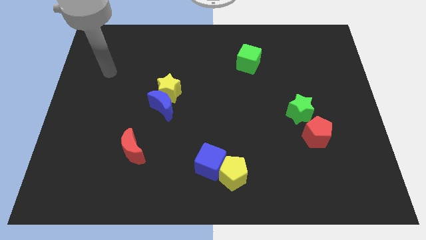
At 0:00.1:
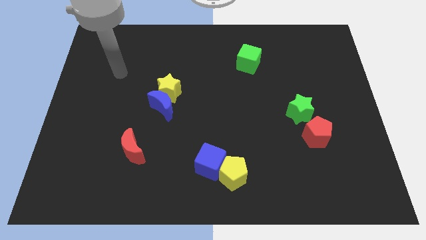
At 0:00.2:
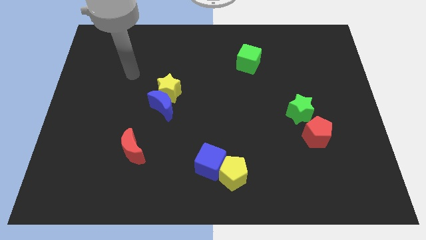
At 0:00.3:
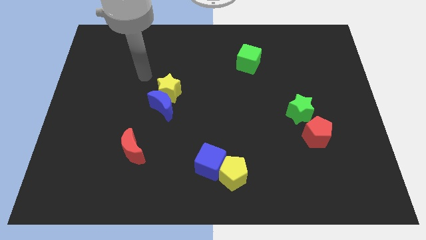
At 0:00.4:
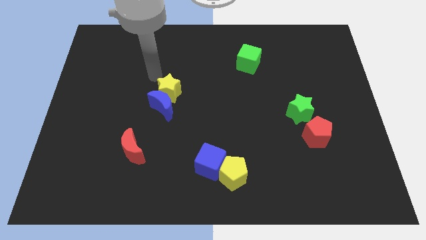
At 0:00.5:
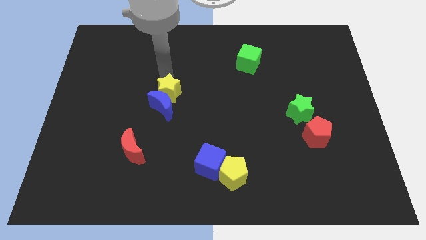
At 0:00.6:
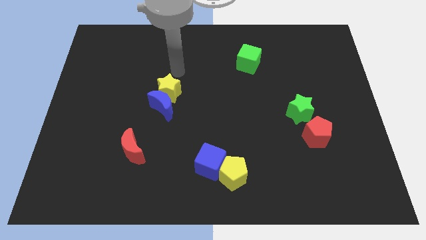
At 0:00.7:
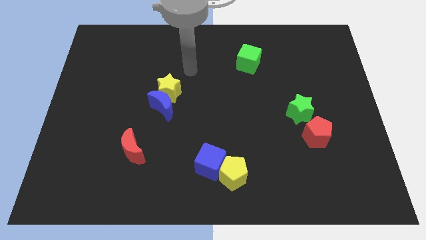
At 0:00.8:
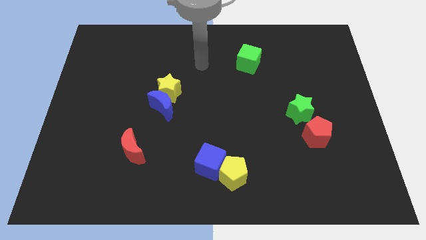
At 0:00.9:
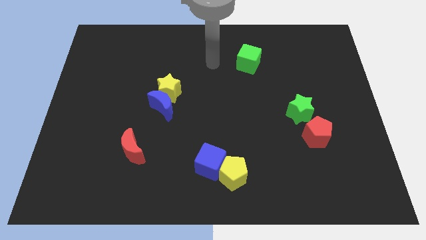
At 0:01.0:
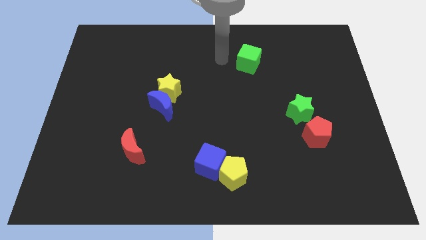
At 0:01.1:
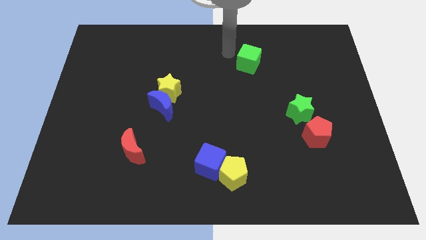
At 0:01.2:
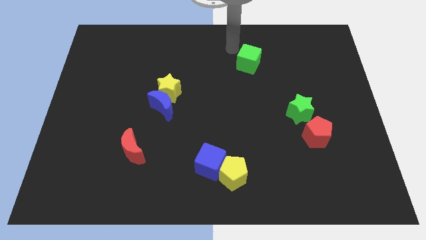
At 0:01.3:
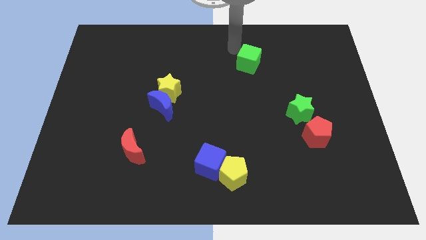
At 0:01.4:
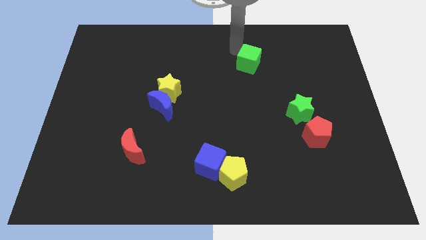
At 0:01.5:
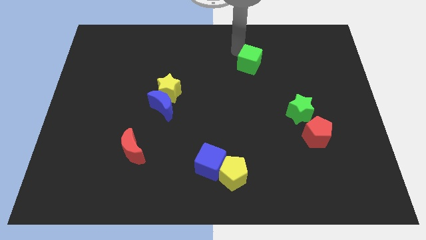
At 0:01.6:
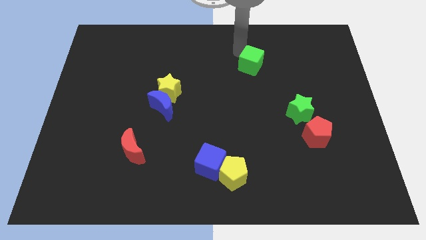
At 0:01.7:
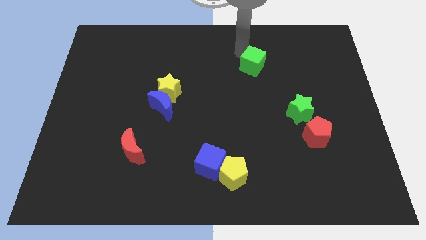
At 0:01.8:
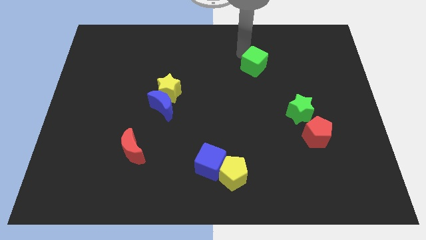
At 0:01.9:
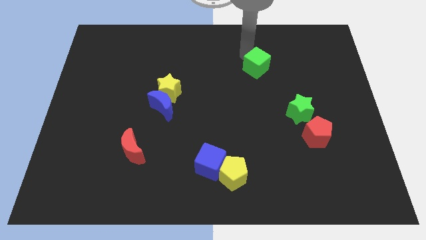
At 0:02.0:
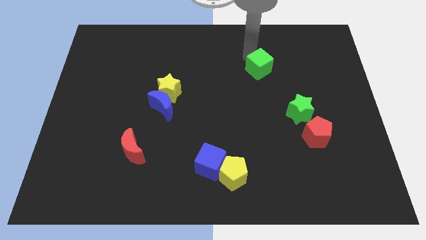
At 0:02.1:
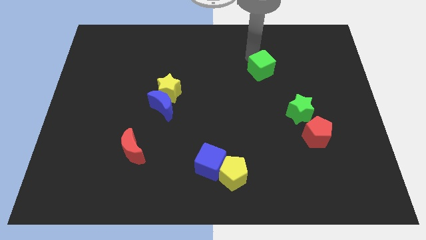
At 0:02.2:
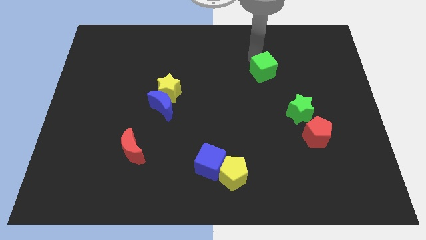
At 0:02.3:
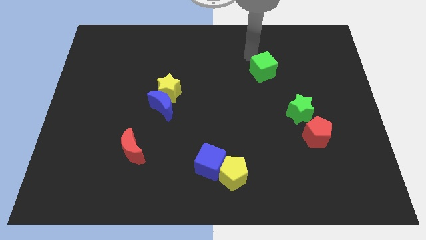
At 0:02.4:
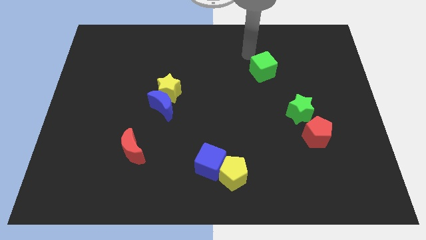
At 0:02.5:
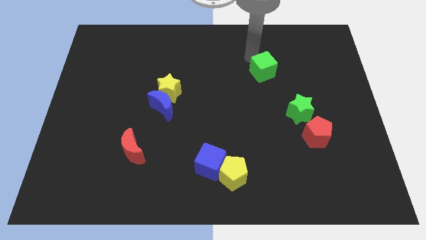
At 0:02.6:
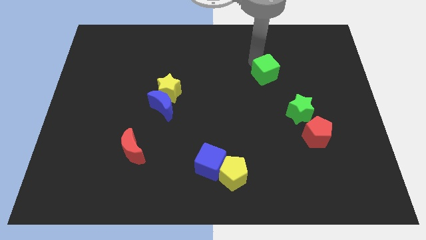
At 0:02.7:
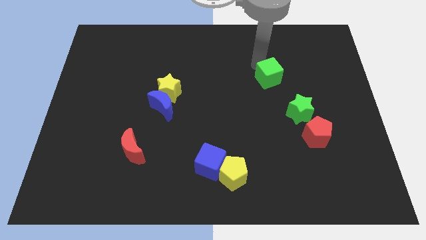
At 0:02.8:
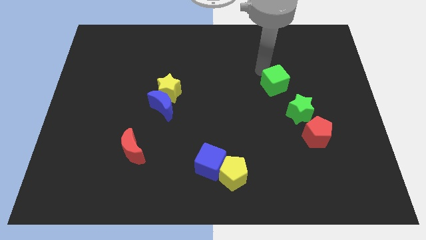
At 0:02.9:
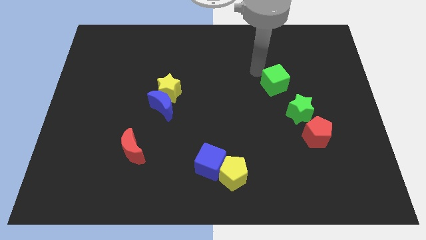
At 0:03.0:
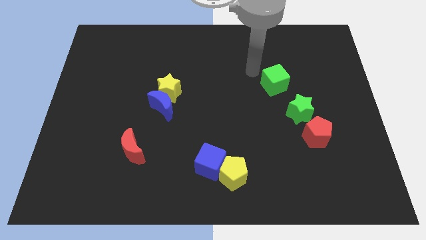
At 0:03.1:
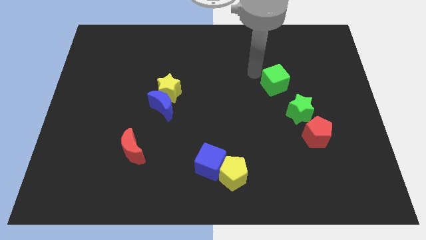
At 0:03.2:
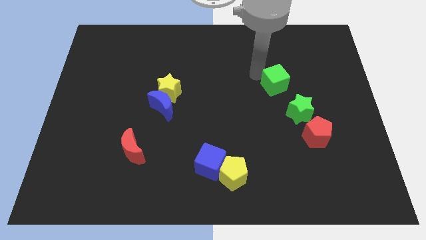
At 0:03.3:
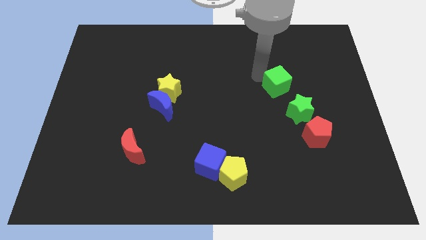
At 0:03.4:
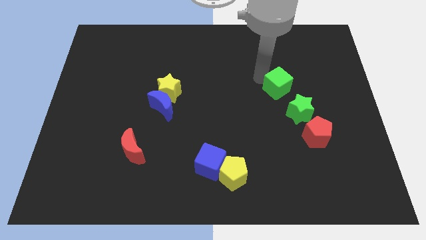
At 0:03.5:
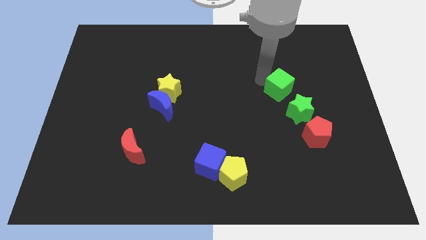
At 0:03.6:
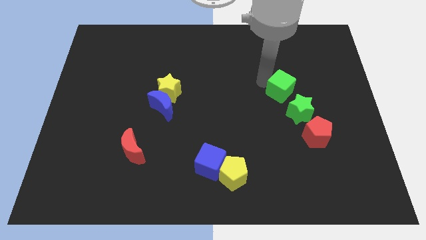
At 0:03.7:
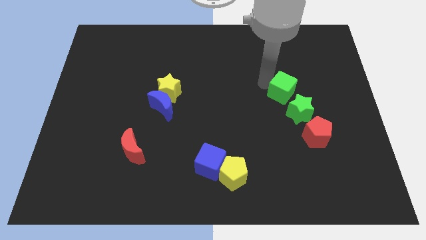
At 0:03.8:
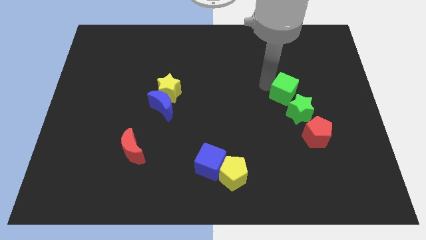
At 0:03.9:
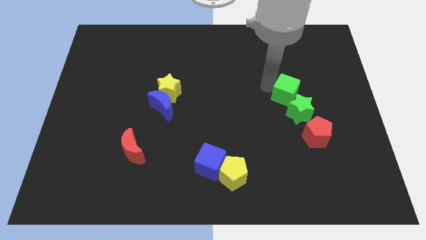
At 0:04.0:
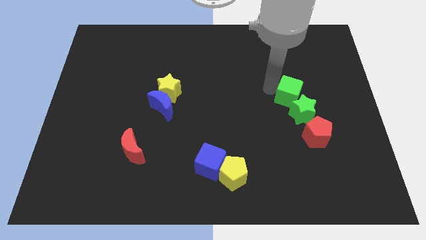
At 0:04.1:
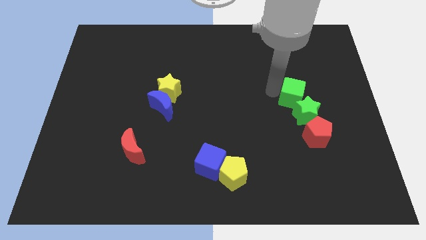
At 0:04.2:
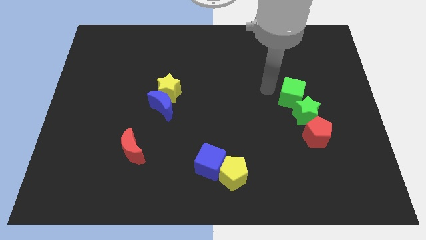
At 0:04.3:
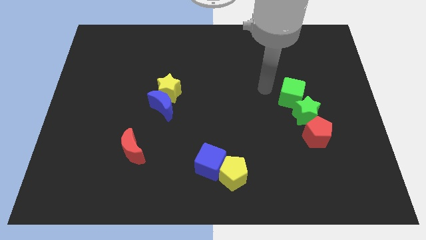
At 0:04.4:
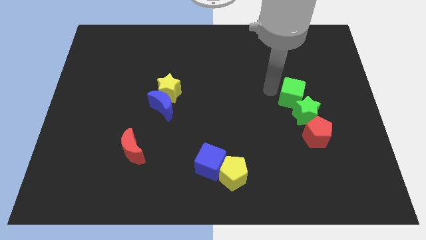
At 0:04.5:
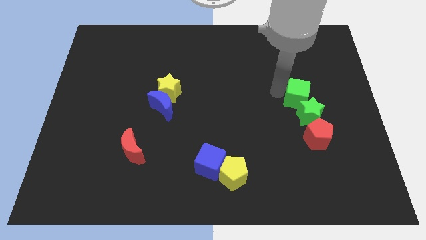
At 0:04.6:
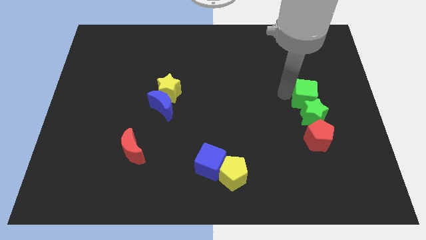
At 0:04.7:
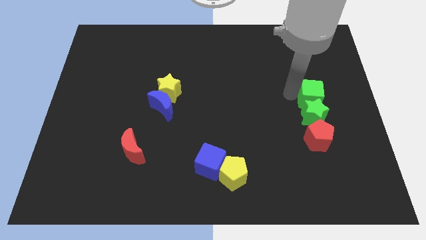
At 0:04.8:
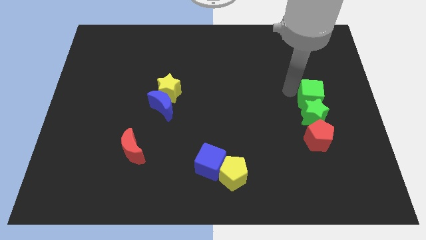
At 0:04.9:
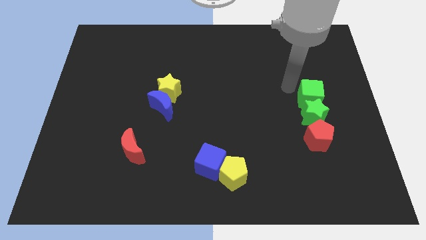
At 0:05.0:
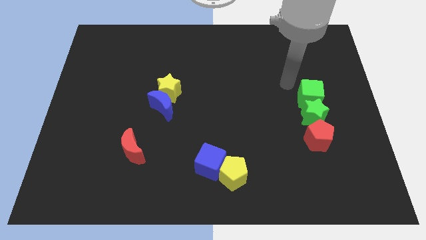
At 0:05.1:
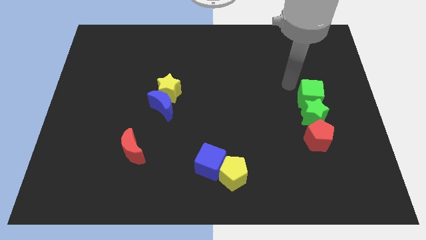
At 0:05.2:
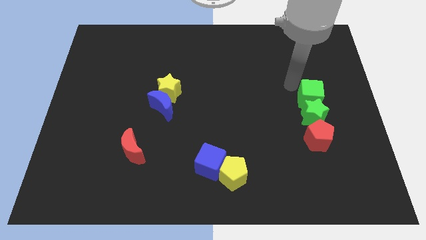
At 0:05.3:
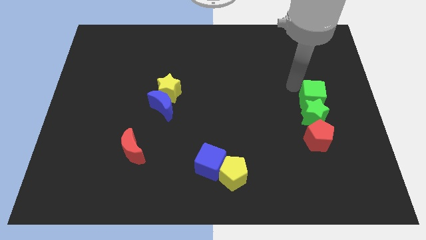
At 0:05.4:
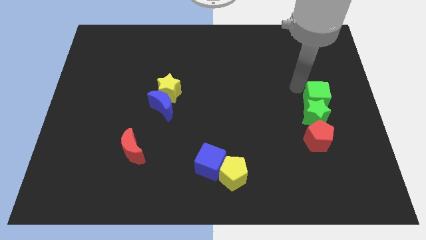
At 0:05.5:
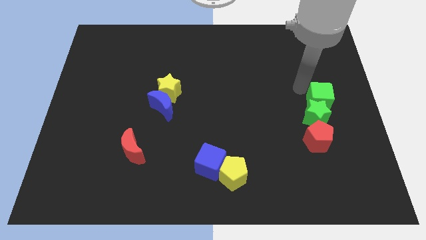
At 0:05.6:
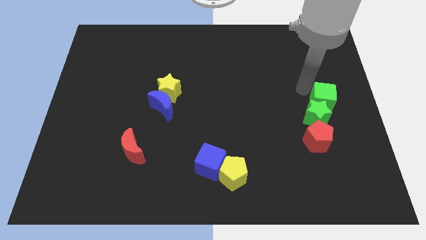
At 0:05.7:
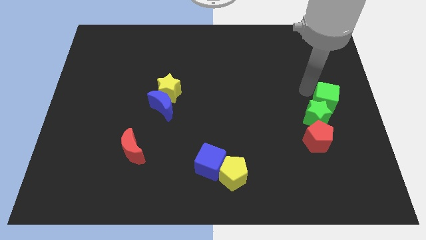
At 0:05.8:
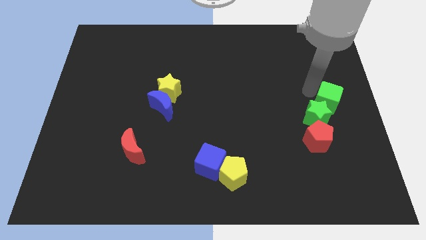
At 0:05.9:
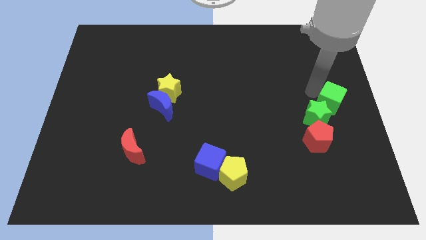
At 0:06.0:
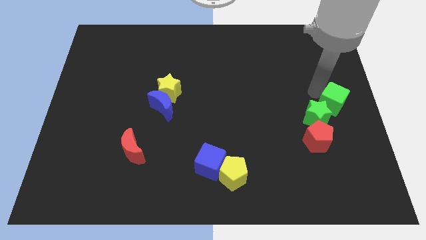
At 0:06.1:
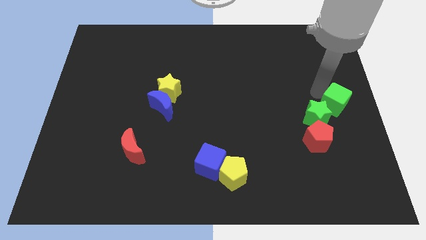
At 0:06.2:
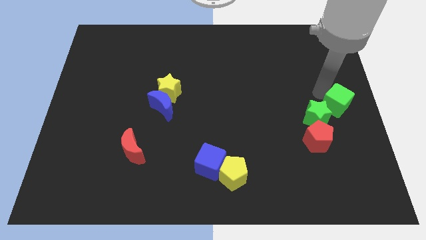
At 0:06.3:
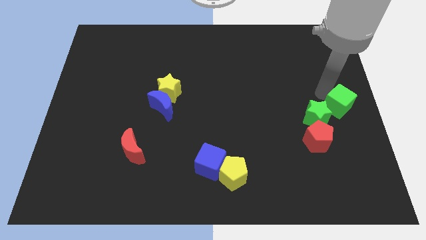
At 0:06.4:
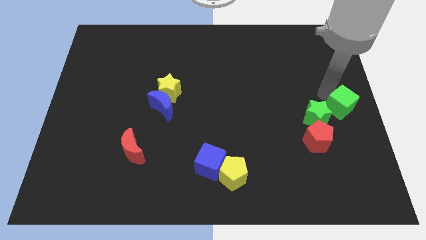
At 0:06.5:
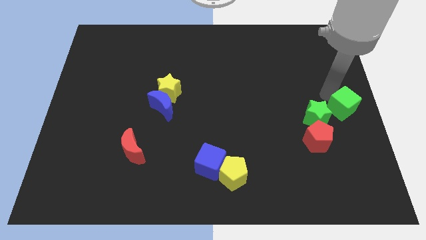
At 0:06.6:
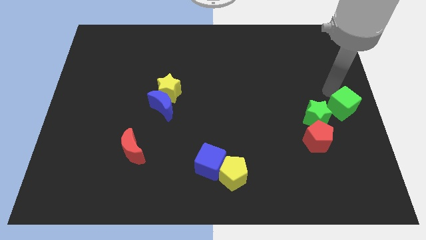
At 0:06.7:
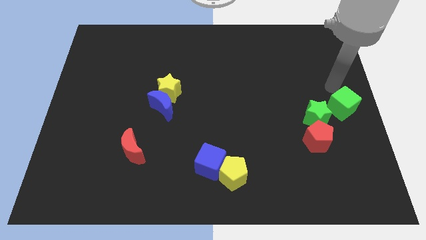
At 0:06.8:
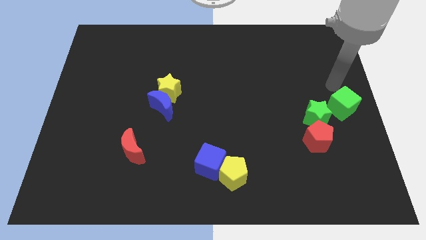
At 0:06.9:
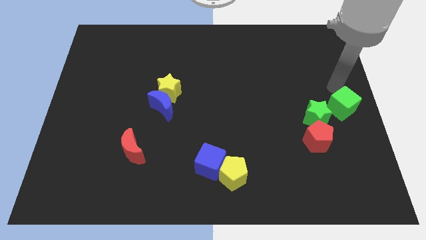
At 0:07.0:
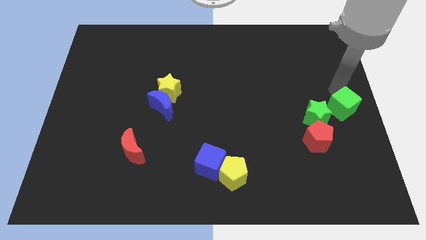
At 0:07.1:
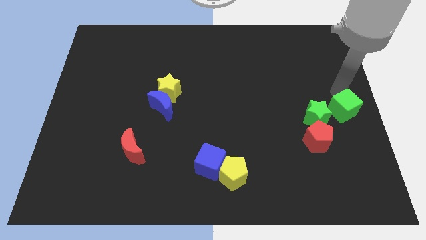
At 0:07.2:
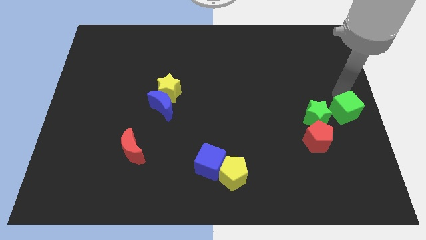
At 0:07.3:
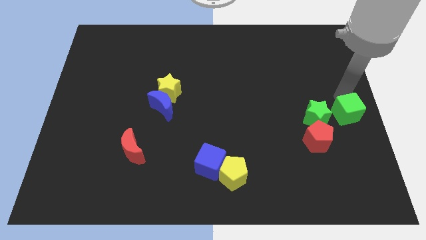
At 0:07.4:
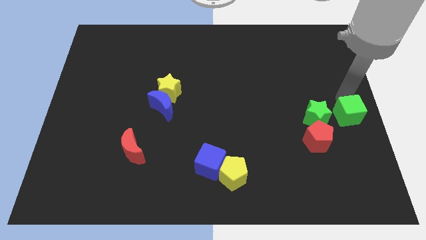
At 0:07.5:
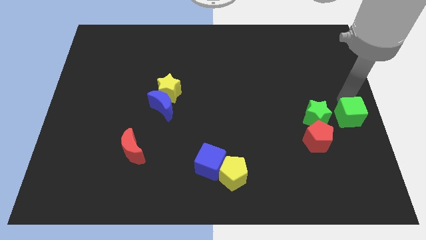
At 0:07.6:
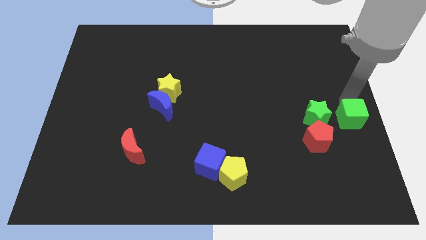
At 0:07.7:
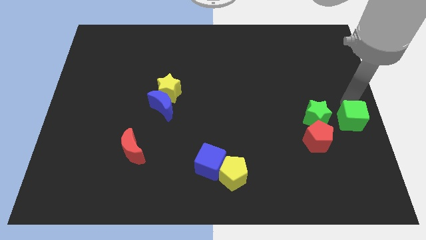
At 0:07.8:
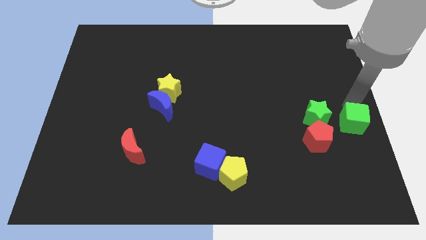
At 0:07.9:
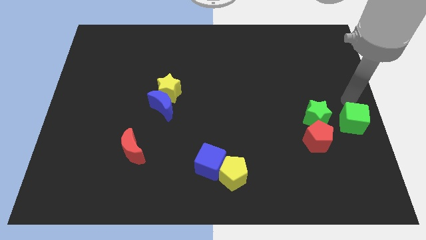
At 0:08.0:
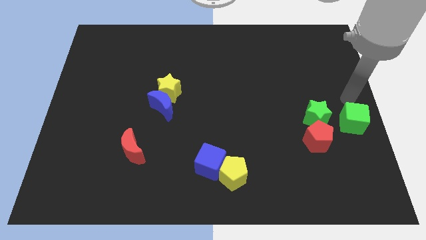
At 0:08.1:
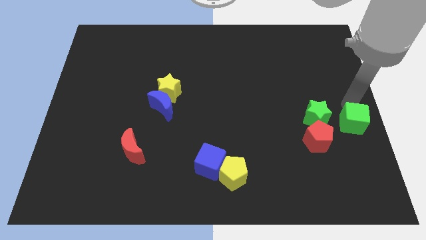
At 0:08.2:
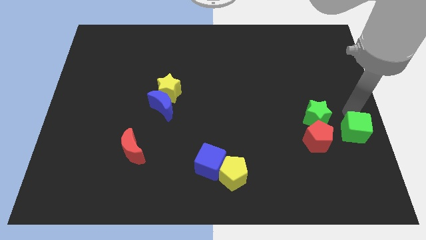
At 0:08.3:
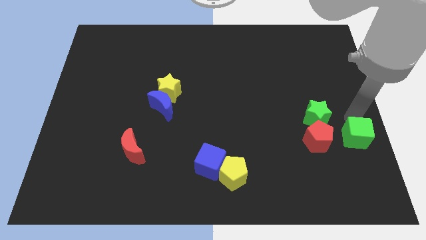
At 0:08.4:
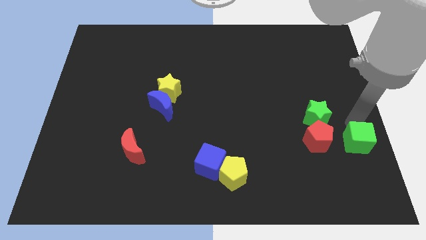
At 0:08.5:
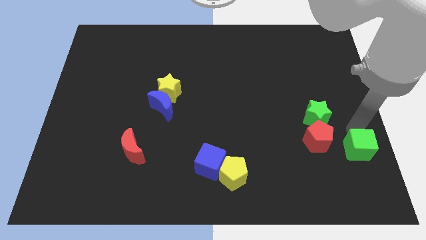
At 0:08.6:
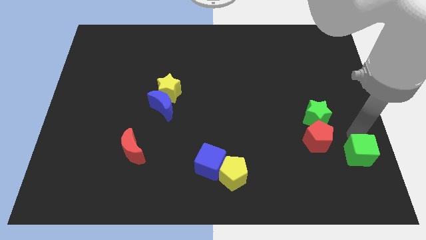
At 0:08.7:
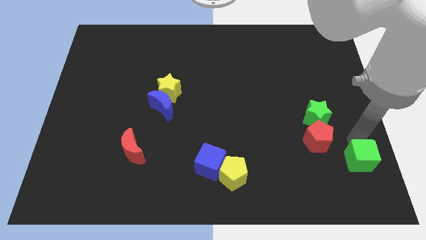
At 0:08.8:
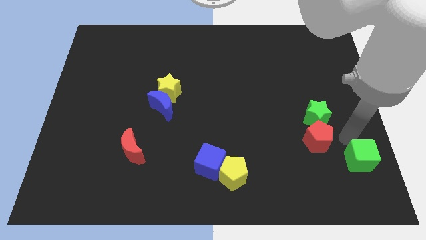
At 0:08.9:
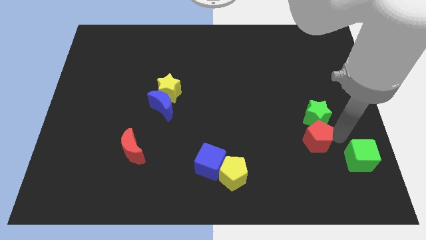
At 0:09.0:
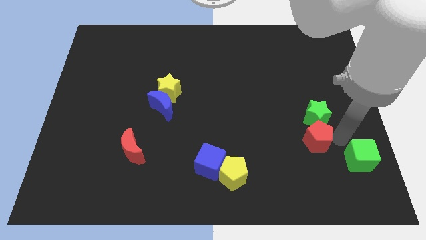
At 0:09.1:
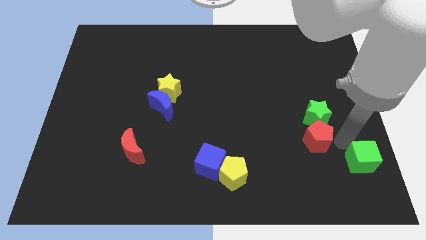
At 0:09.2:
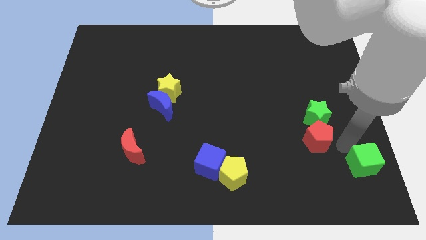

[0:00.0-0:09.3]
slide the green cube to the bottom right
